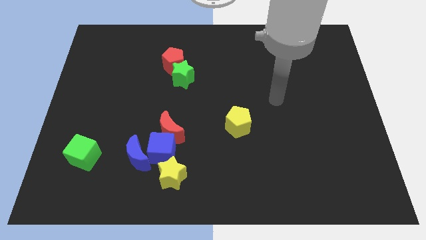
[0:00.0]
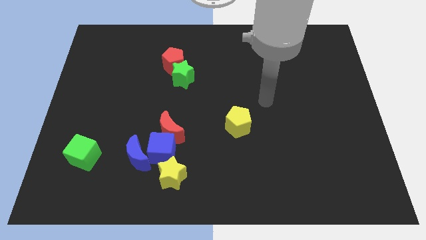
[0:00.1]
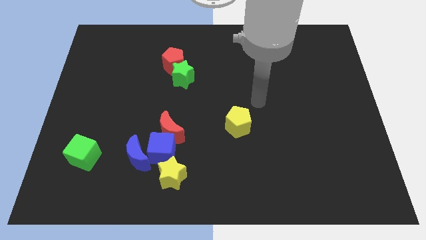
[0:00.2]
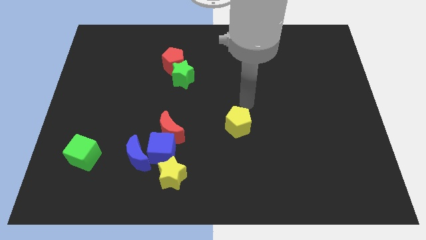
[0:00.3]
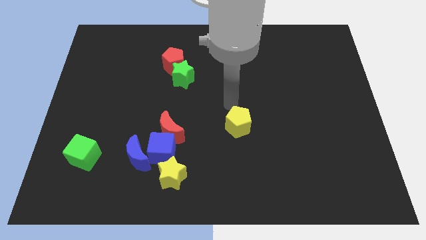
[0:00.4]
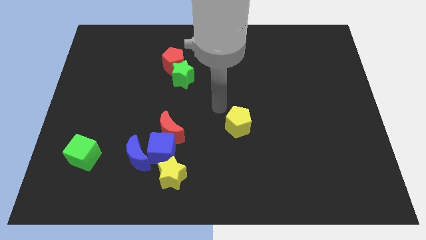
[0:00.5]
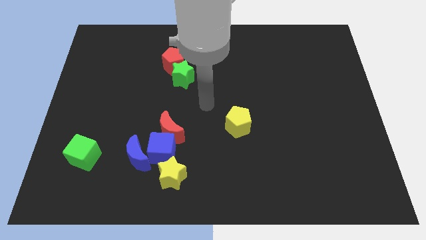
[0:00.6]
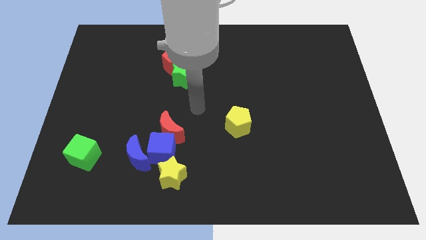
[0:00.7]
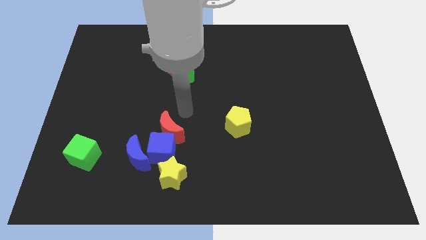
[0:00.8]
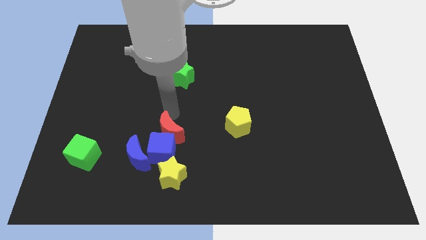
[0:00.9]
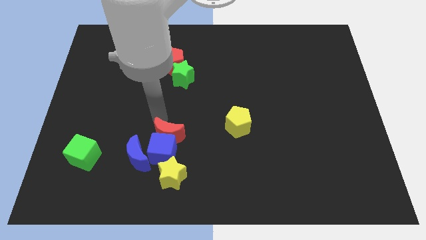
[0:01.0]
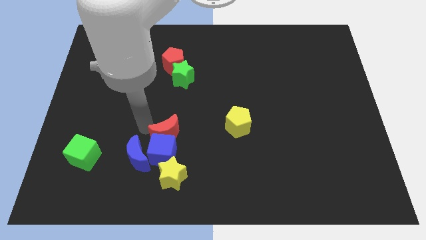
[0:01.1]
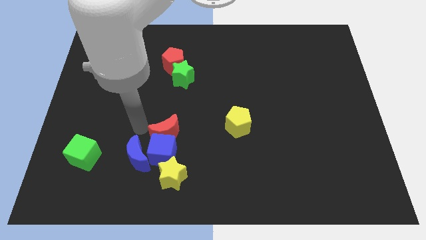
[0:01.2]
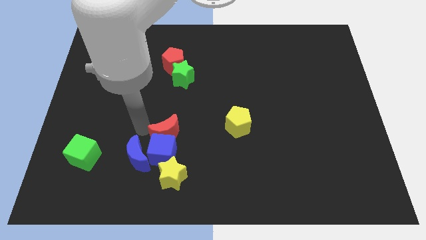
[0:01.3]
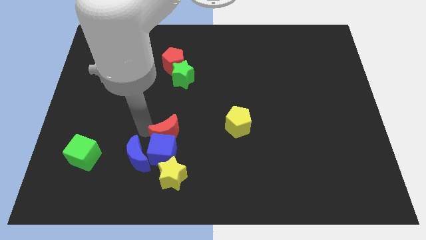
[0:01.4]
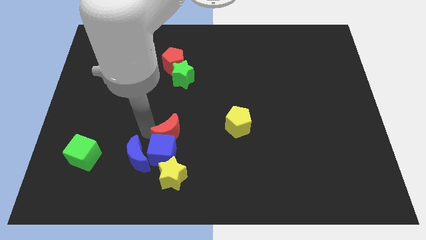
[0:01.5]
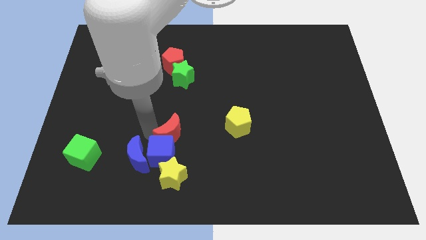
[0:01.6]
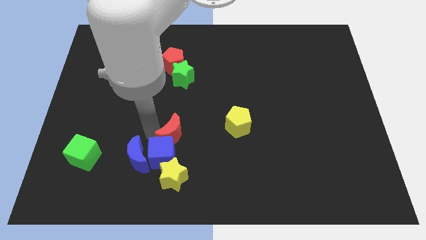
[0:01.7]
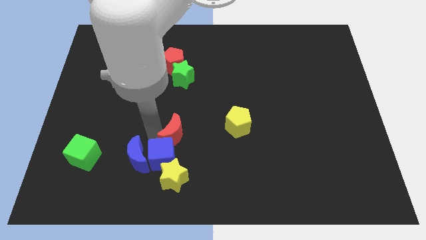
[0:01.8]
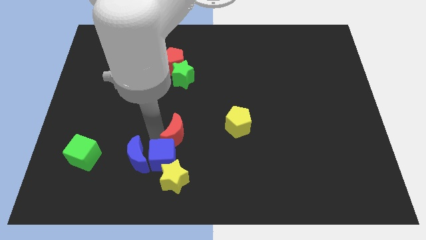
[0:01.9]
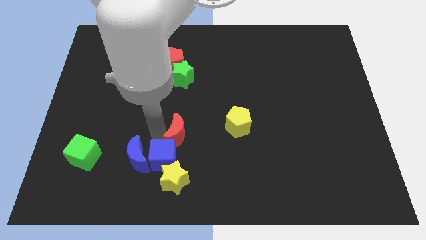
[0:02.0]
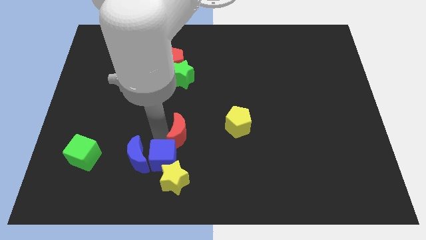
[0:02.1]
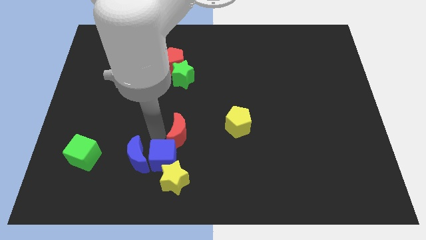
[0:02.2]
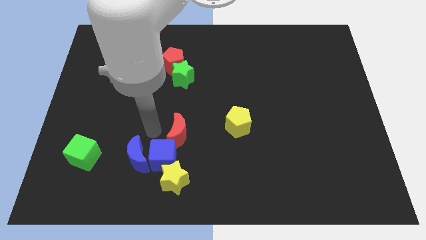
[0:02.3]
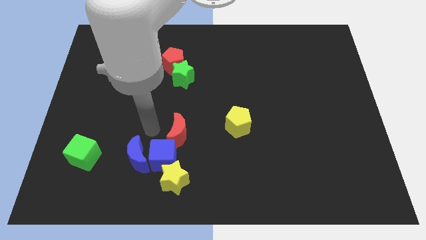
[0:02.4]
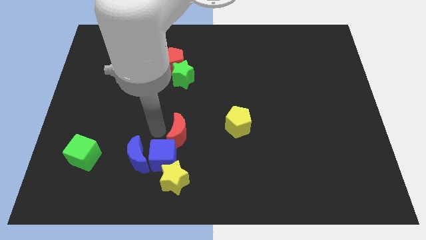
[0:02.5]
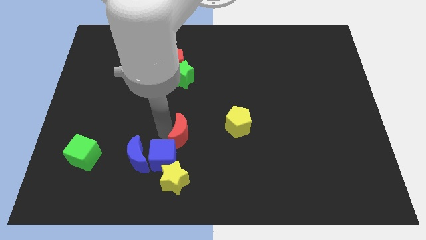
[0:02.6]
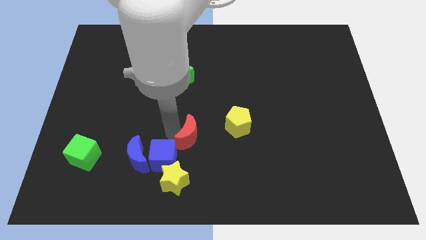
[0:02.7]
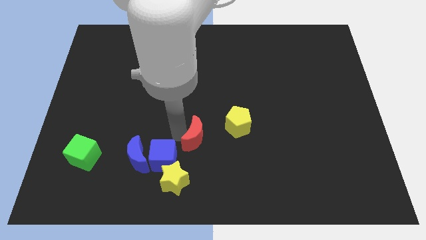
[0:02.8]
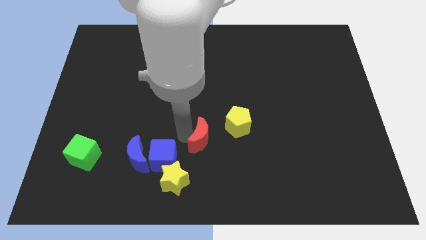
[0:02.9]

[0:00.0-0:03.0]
slide the red moon a little right

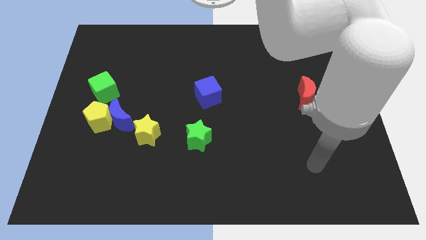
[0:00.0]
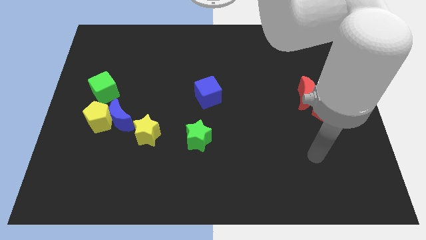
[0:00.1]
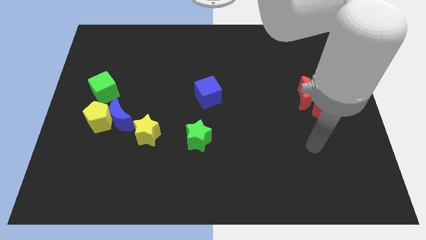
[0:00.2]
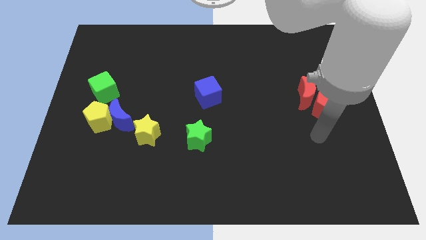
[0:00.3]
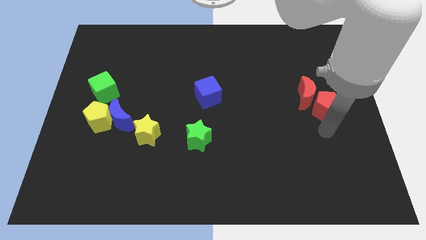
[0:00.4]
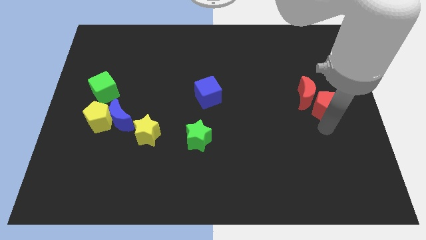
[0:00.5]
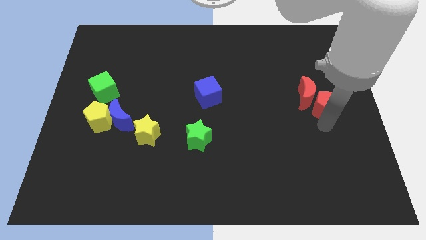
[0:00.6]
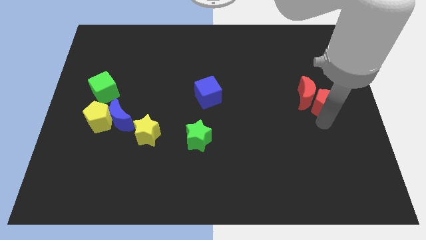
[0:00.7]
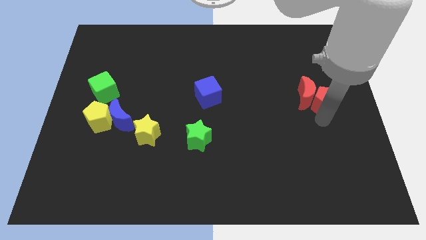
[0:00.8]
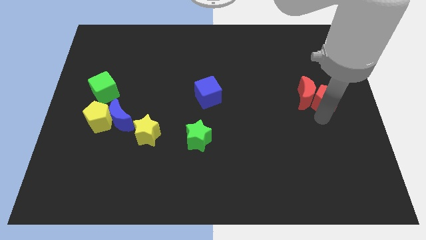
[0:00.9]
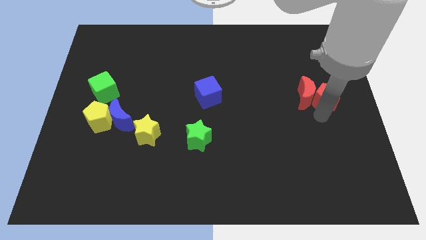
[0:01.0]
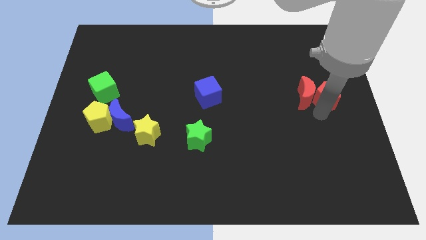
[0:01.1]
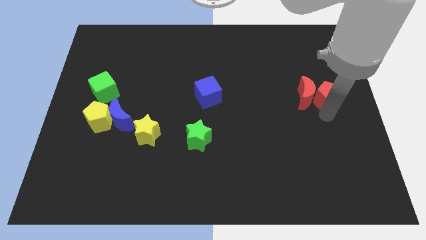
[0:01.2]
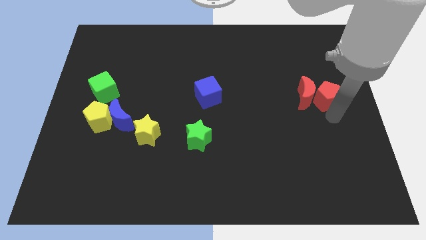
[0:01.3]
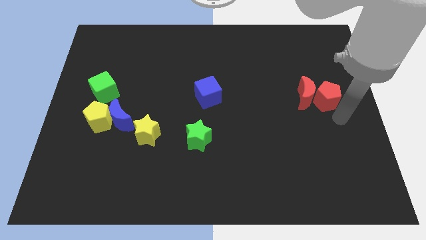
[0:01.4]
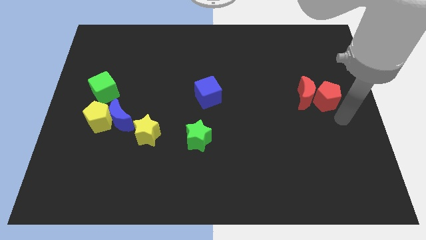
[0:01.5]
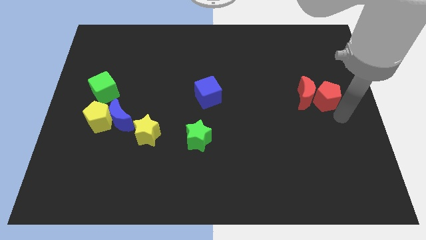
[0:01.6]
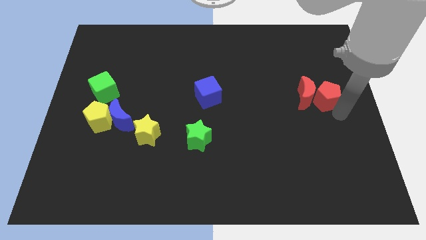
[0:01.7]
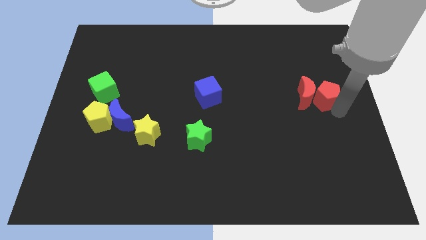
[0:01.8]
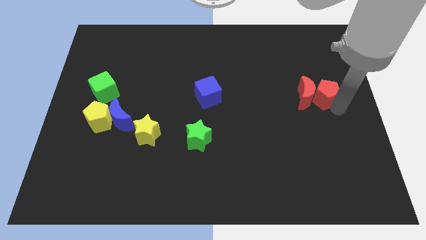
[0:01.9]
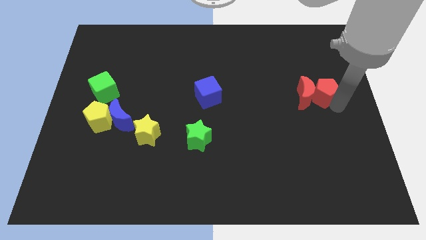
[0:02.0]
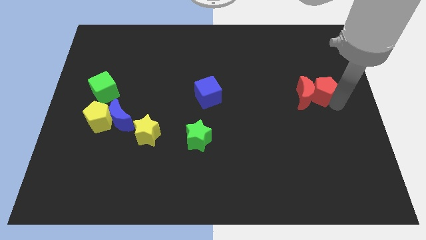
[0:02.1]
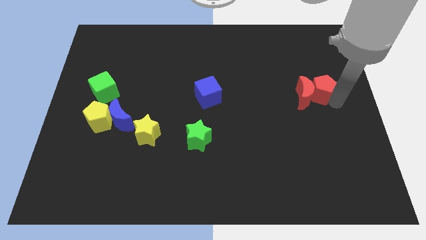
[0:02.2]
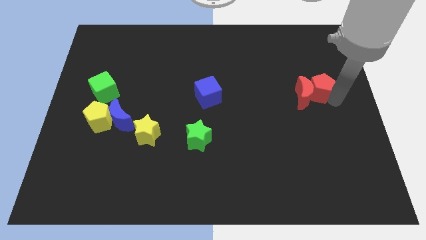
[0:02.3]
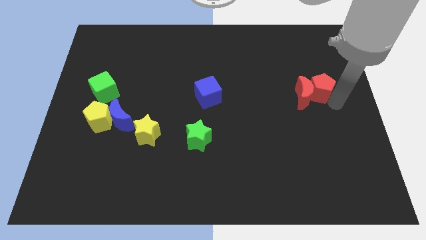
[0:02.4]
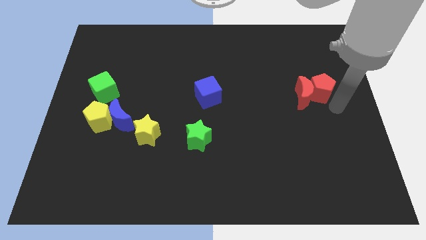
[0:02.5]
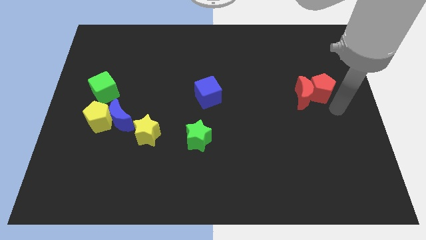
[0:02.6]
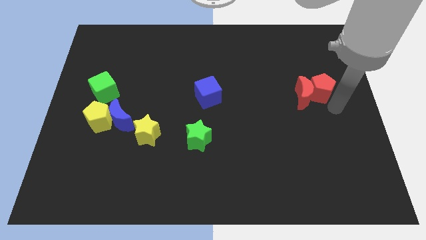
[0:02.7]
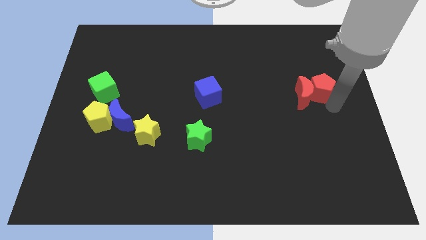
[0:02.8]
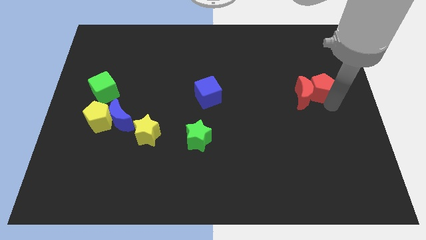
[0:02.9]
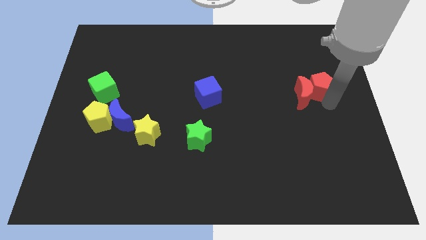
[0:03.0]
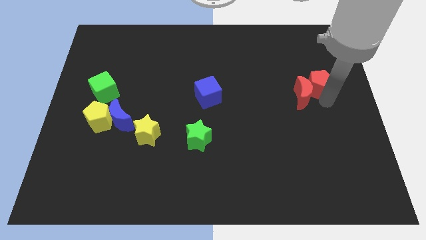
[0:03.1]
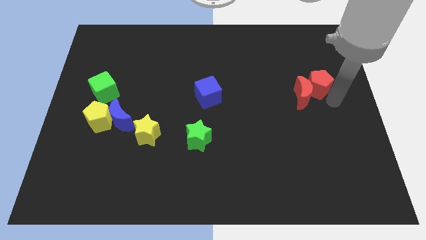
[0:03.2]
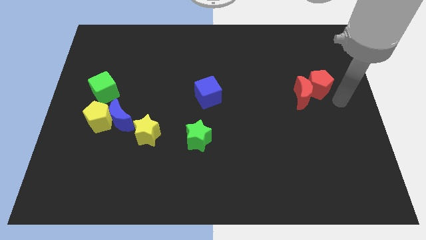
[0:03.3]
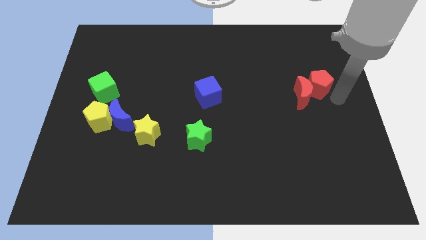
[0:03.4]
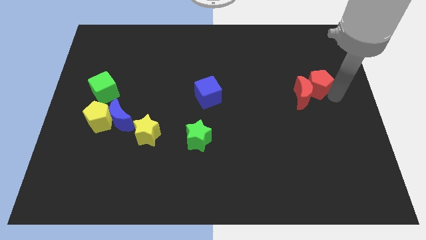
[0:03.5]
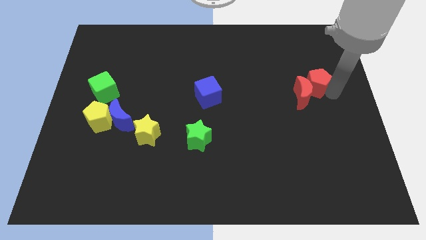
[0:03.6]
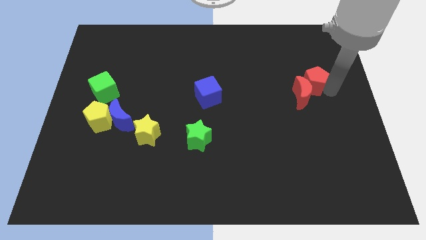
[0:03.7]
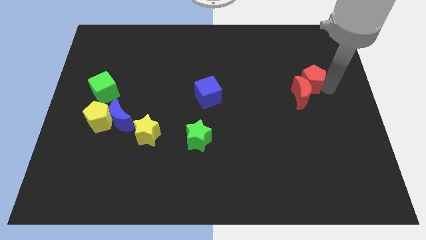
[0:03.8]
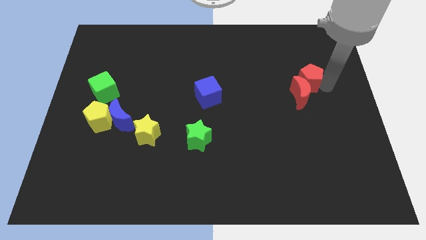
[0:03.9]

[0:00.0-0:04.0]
slide the red pentagon up and left slightly

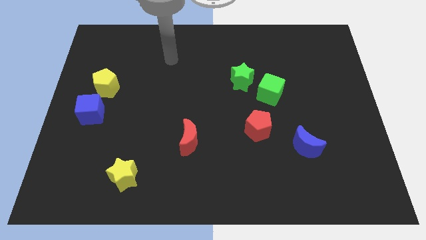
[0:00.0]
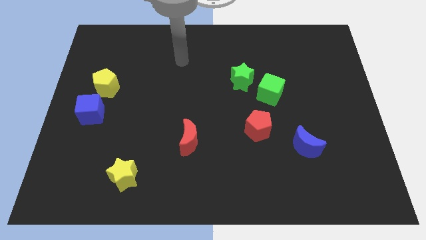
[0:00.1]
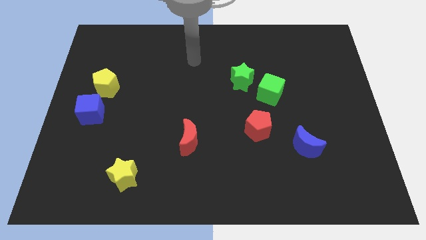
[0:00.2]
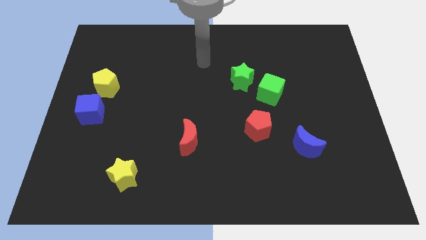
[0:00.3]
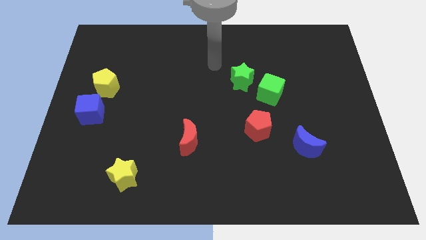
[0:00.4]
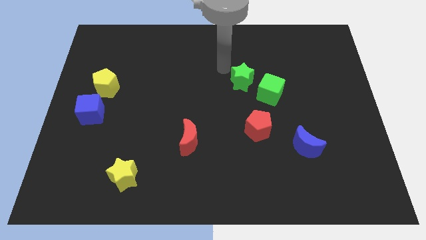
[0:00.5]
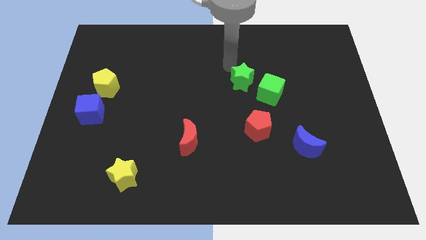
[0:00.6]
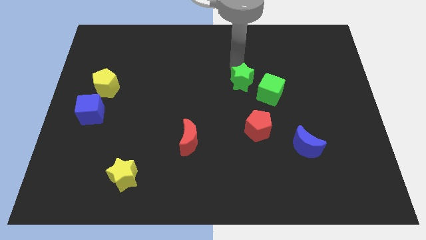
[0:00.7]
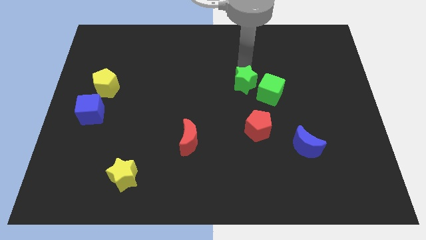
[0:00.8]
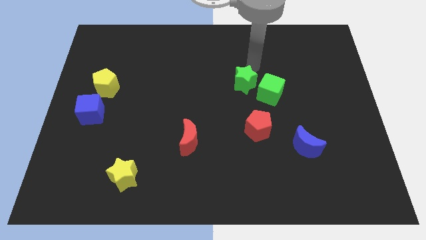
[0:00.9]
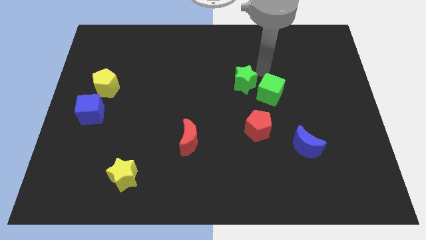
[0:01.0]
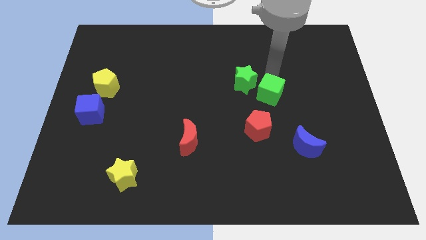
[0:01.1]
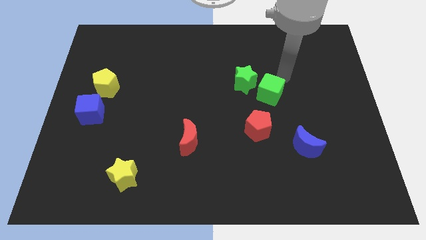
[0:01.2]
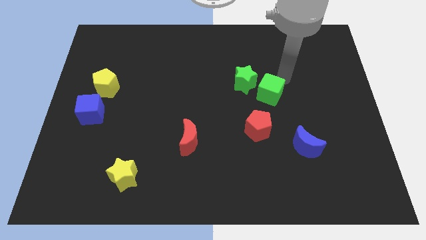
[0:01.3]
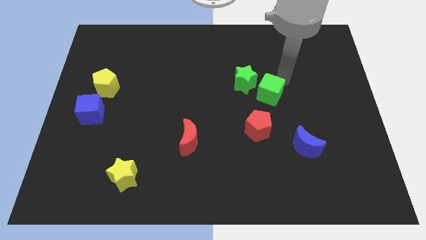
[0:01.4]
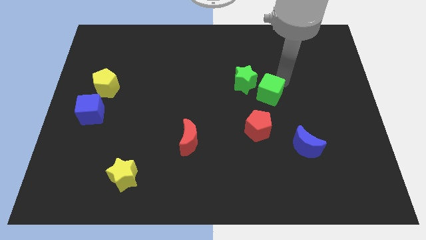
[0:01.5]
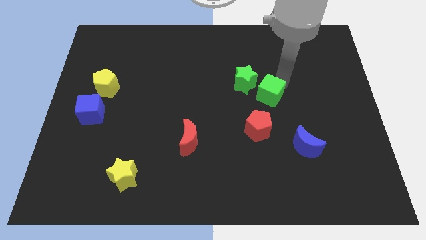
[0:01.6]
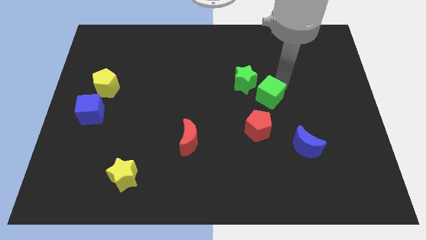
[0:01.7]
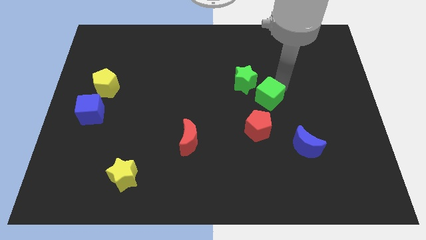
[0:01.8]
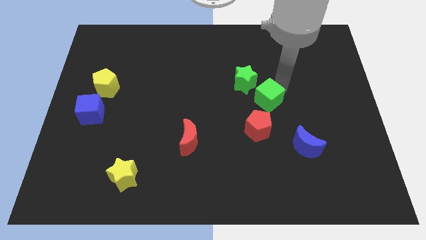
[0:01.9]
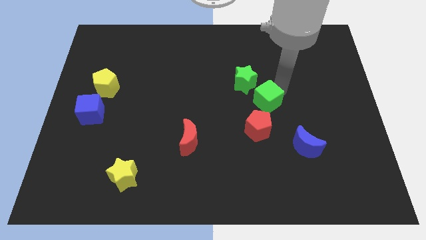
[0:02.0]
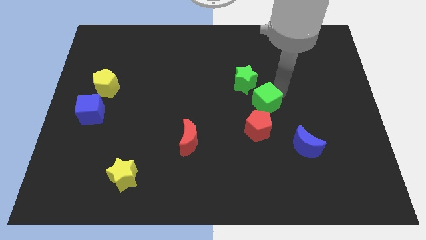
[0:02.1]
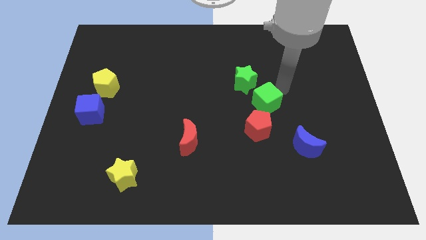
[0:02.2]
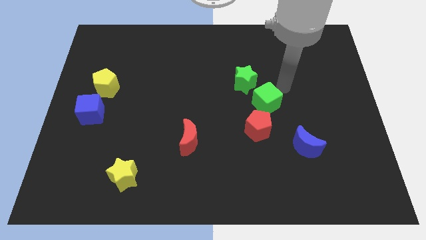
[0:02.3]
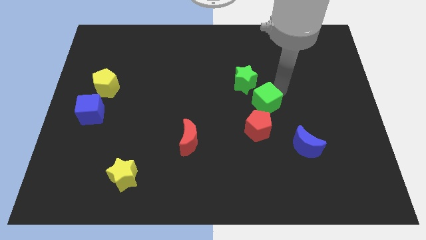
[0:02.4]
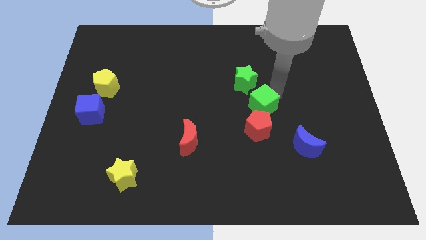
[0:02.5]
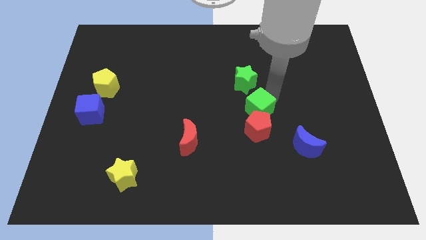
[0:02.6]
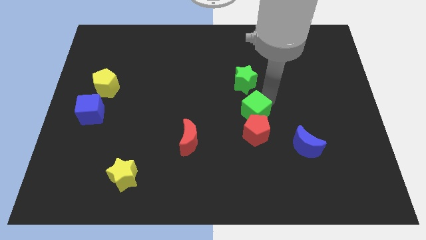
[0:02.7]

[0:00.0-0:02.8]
push the green cube diagonally downwards and to the left a little bit
